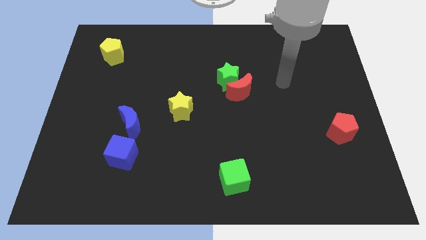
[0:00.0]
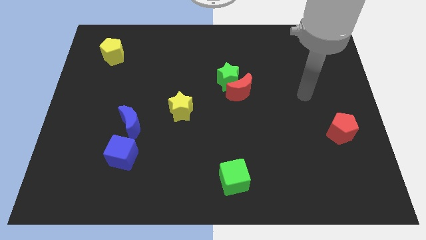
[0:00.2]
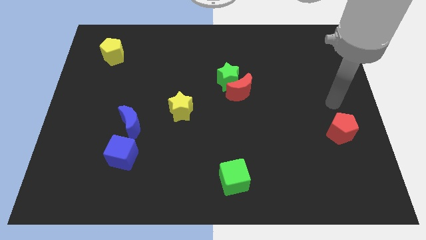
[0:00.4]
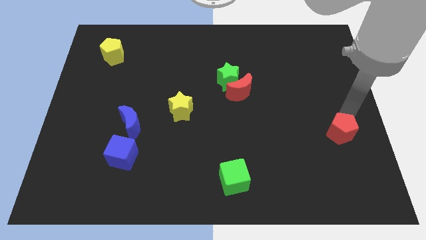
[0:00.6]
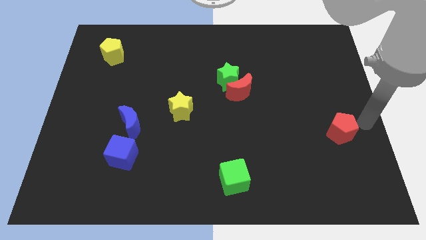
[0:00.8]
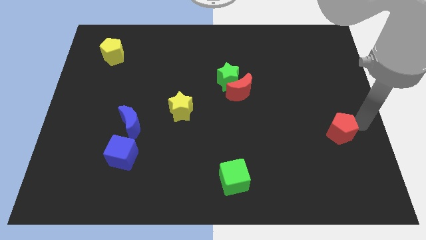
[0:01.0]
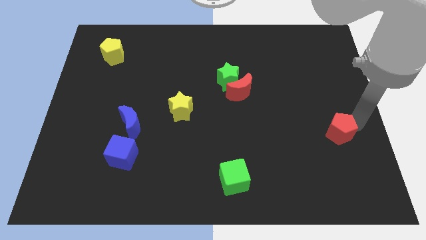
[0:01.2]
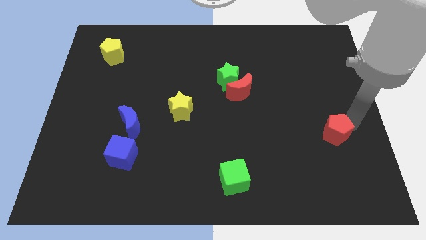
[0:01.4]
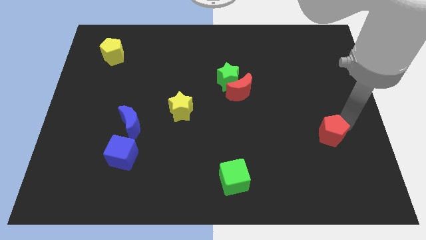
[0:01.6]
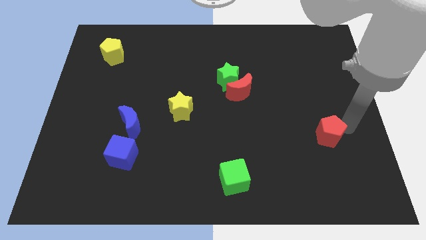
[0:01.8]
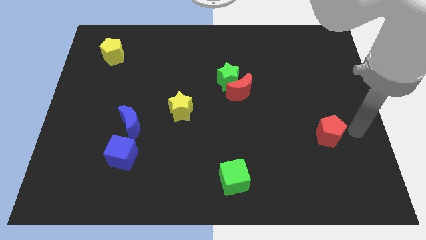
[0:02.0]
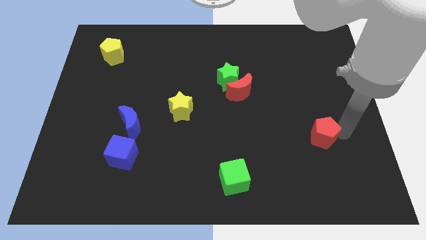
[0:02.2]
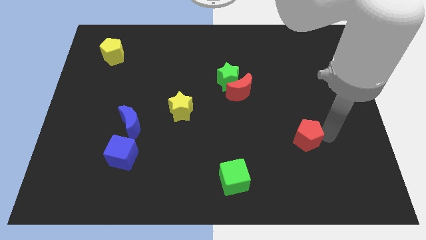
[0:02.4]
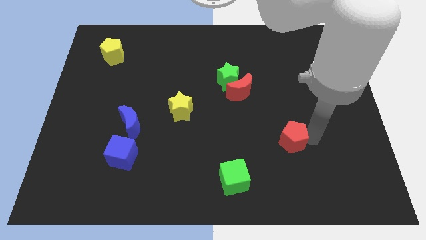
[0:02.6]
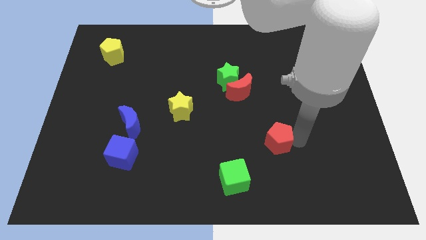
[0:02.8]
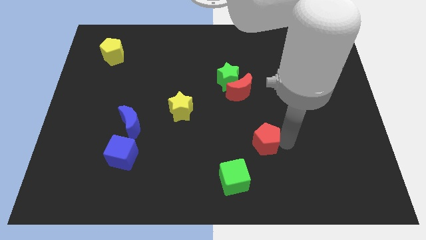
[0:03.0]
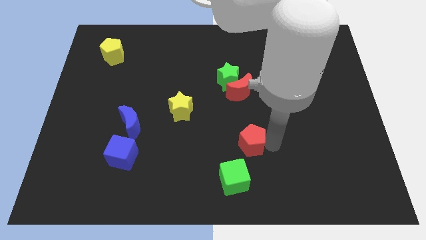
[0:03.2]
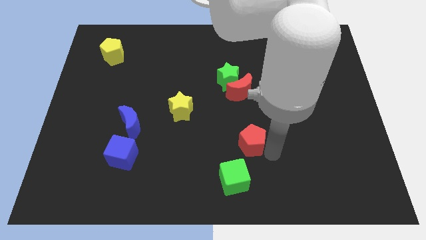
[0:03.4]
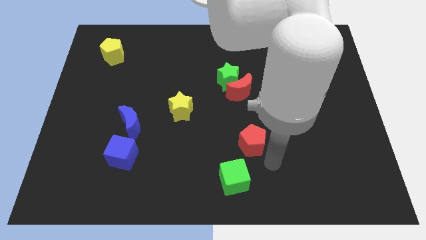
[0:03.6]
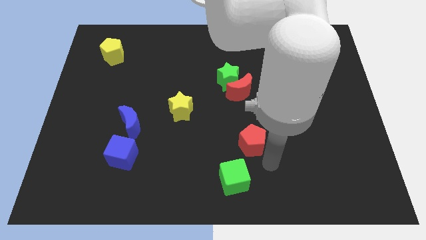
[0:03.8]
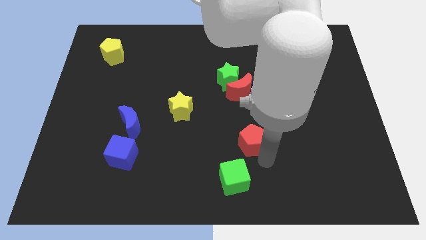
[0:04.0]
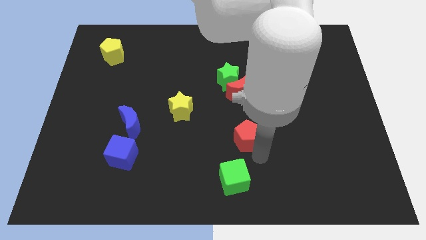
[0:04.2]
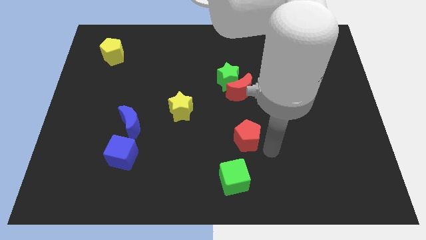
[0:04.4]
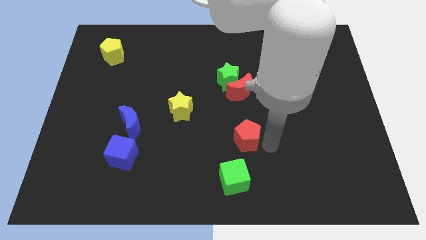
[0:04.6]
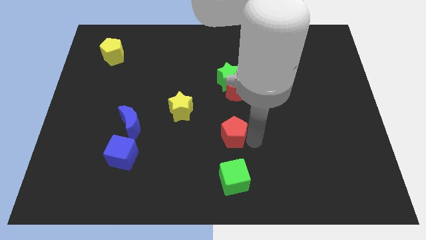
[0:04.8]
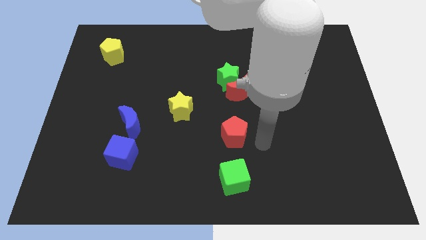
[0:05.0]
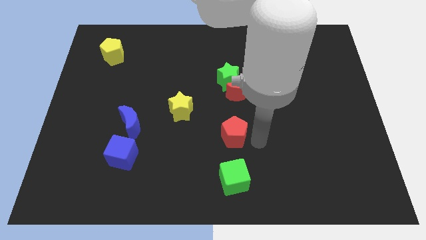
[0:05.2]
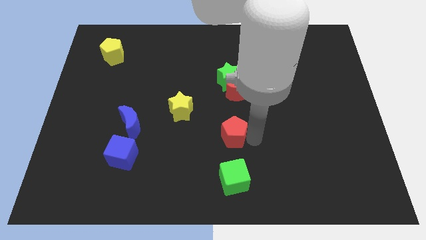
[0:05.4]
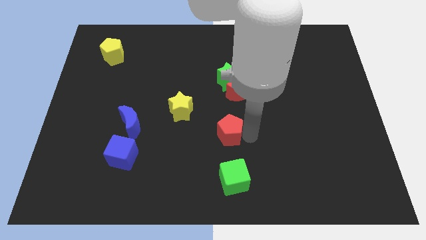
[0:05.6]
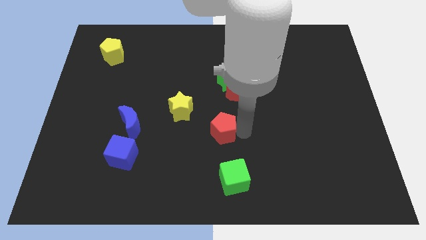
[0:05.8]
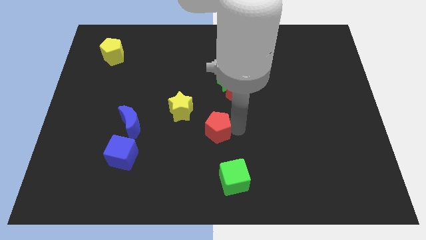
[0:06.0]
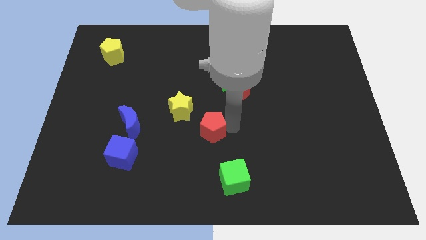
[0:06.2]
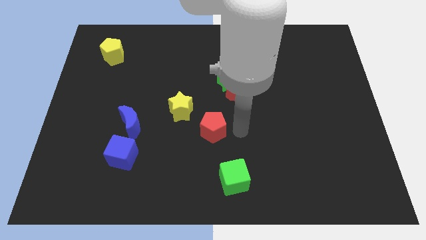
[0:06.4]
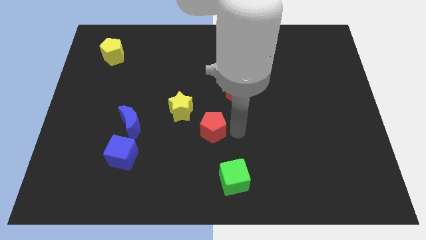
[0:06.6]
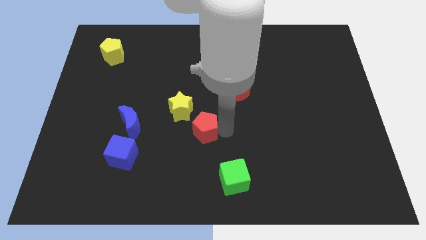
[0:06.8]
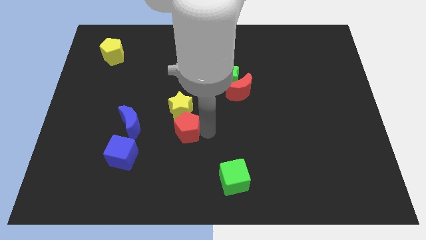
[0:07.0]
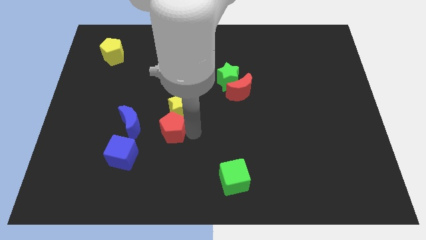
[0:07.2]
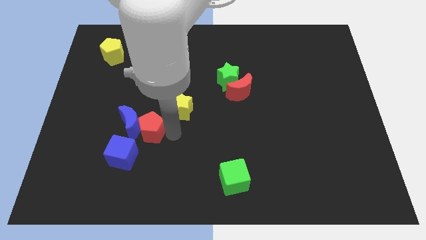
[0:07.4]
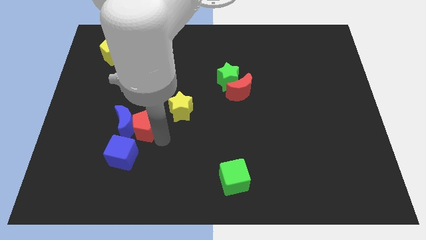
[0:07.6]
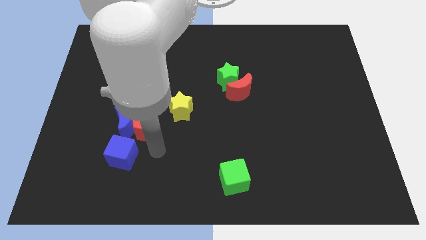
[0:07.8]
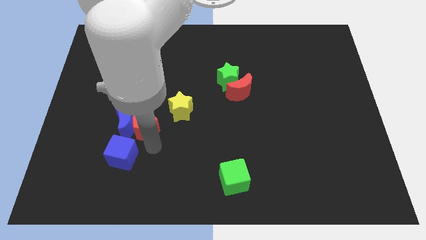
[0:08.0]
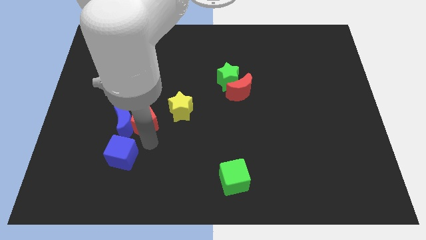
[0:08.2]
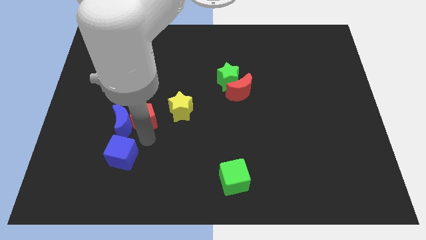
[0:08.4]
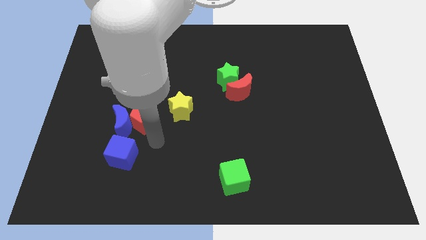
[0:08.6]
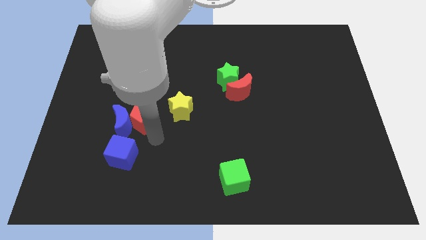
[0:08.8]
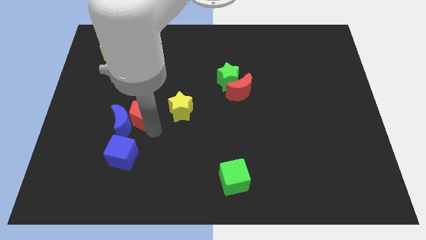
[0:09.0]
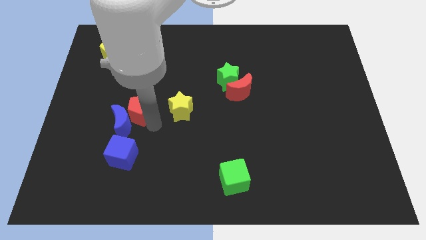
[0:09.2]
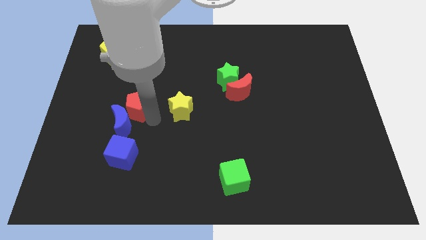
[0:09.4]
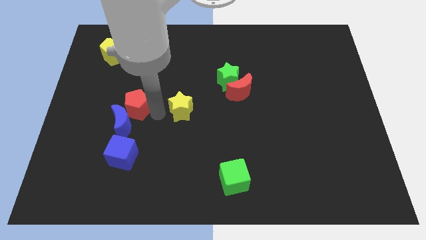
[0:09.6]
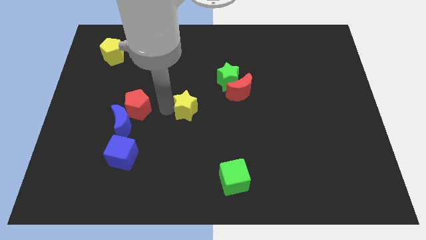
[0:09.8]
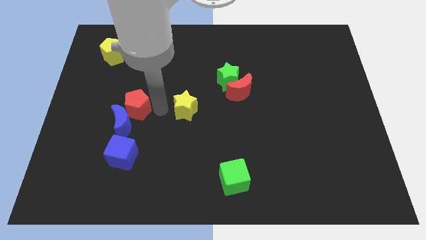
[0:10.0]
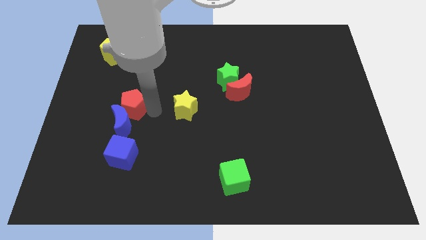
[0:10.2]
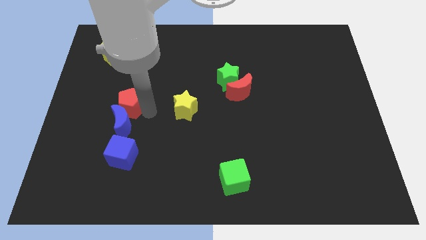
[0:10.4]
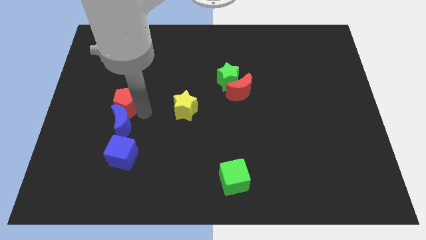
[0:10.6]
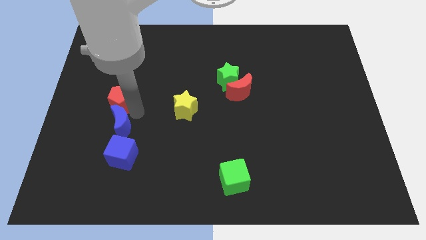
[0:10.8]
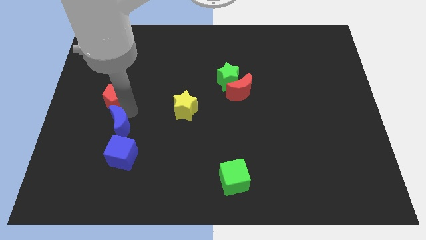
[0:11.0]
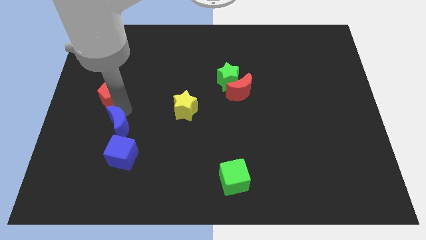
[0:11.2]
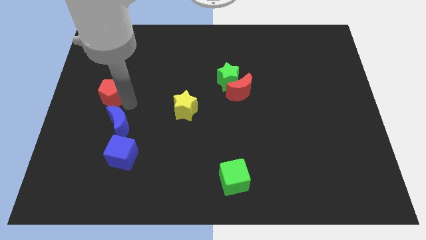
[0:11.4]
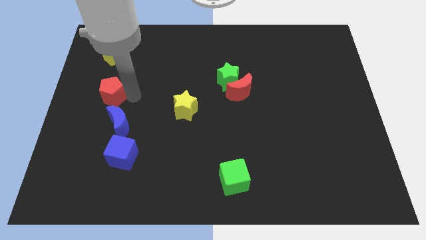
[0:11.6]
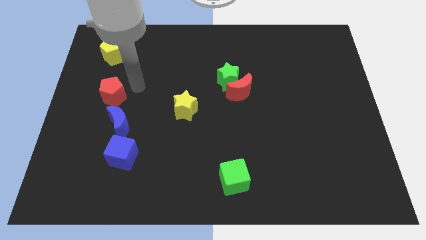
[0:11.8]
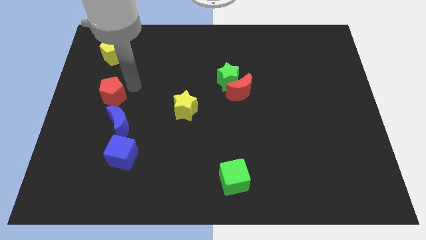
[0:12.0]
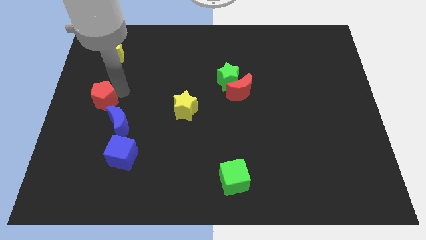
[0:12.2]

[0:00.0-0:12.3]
move the red pentagon to the left side

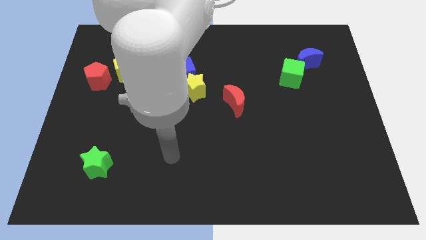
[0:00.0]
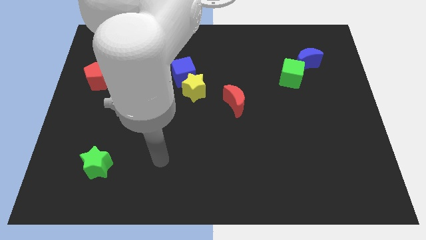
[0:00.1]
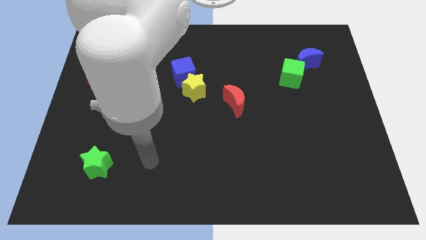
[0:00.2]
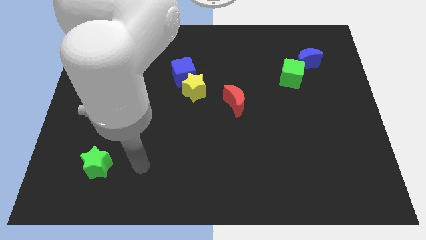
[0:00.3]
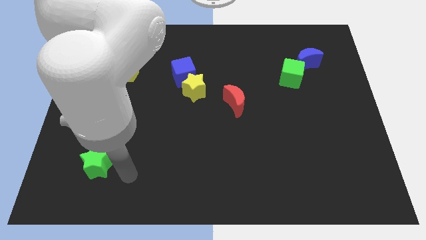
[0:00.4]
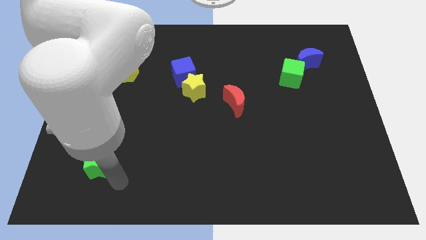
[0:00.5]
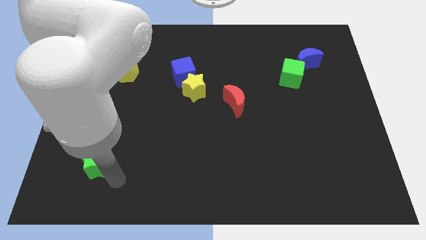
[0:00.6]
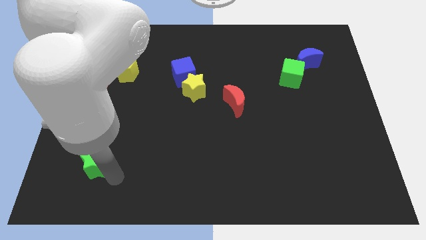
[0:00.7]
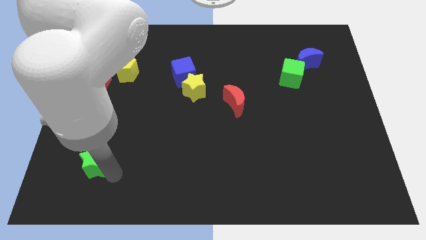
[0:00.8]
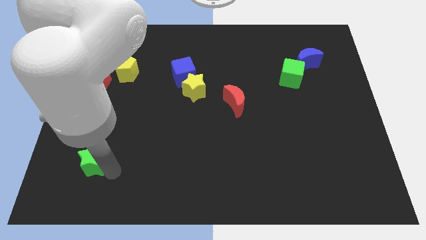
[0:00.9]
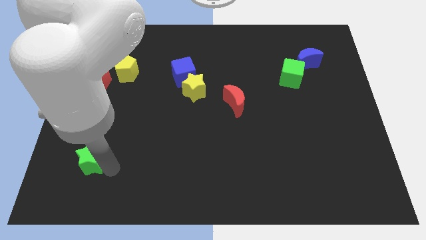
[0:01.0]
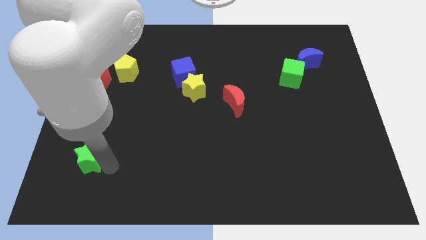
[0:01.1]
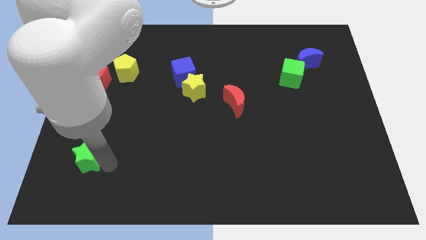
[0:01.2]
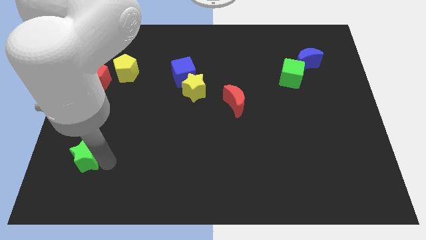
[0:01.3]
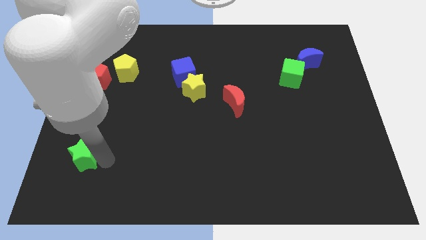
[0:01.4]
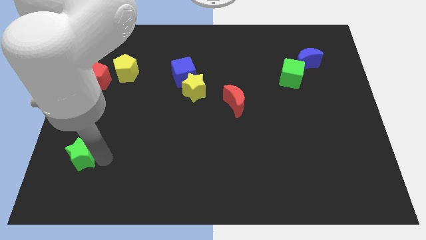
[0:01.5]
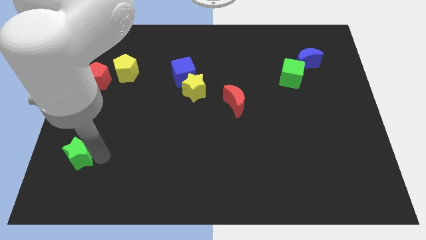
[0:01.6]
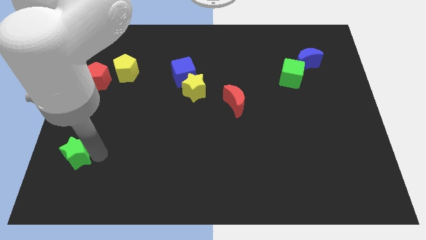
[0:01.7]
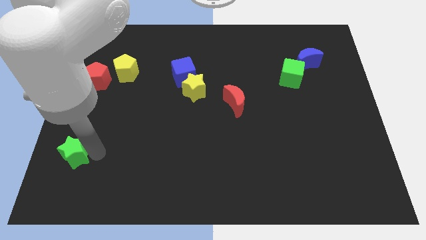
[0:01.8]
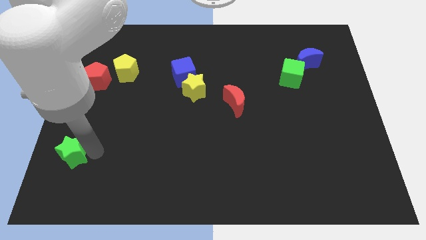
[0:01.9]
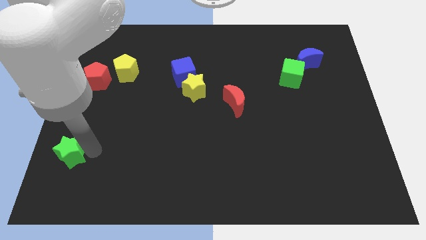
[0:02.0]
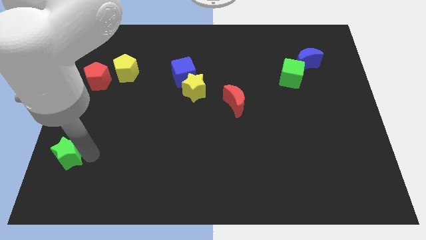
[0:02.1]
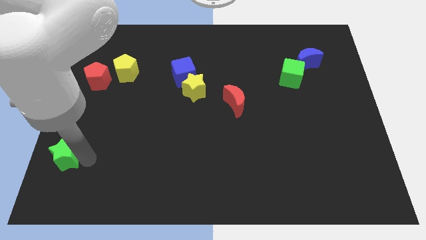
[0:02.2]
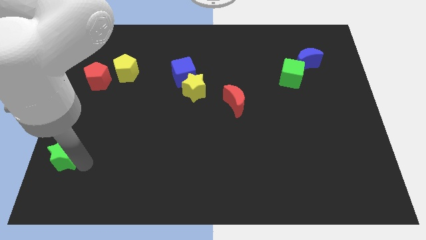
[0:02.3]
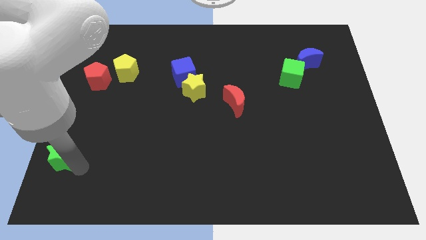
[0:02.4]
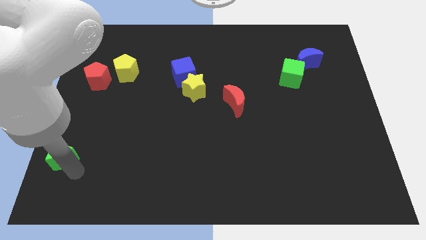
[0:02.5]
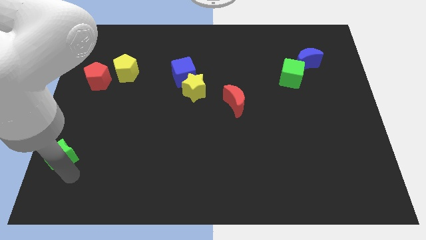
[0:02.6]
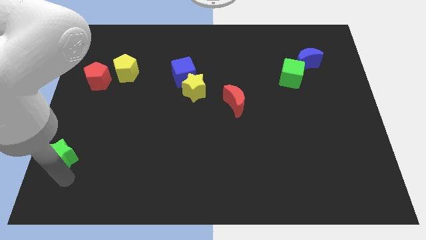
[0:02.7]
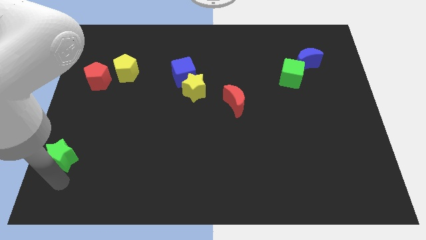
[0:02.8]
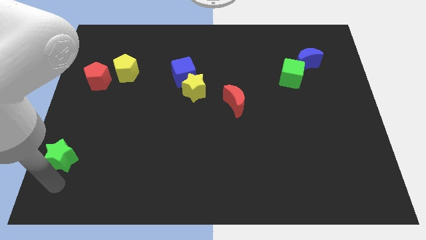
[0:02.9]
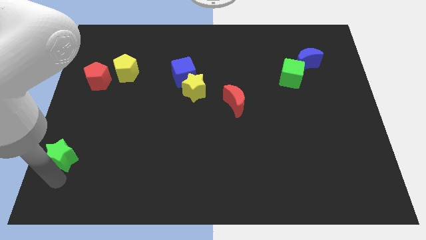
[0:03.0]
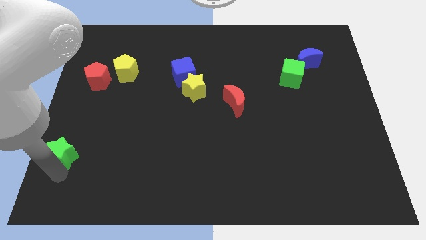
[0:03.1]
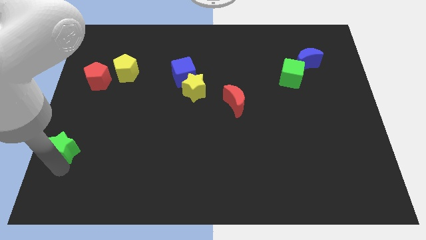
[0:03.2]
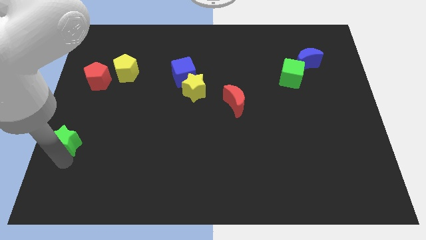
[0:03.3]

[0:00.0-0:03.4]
move the green star to the center left
